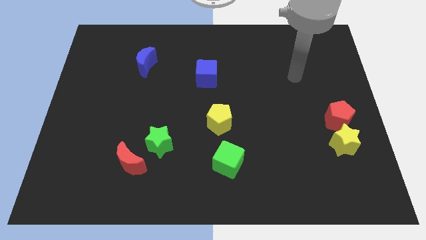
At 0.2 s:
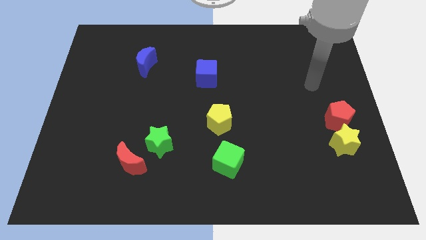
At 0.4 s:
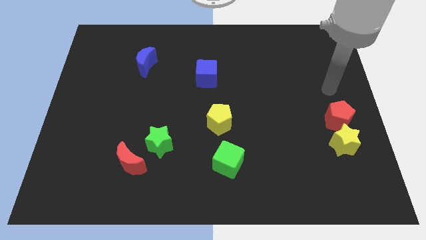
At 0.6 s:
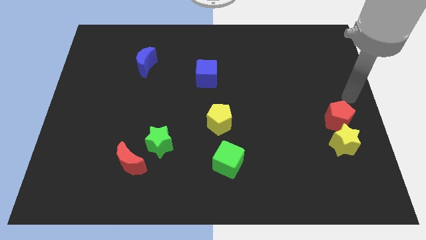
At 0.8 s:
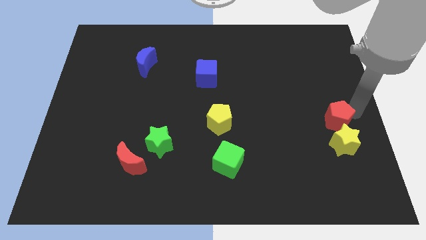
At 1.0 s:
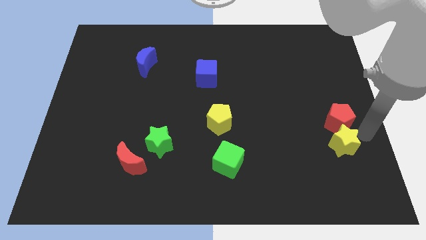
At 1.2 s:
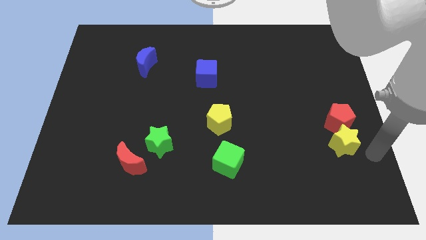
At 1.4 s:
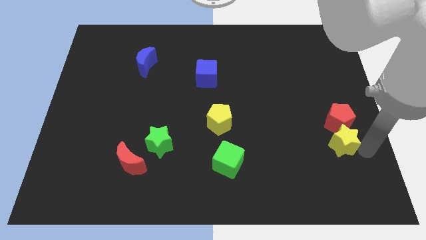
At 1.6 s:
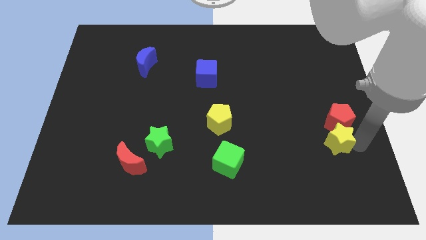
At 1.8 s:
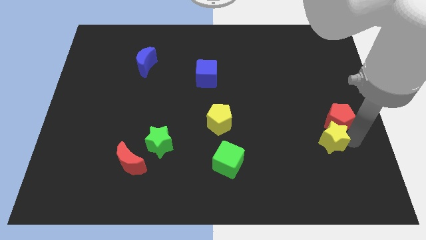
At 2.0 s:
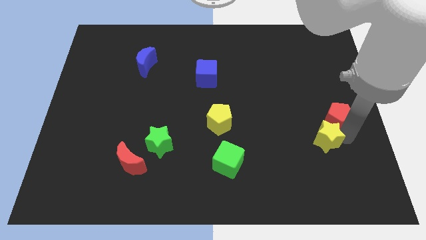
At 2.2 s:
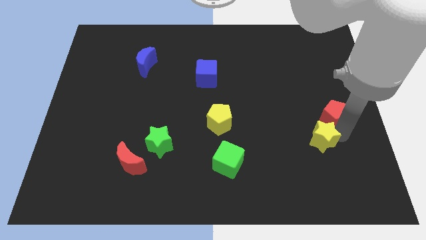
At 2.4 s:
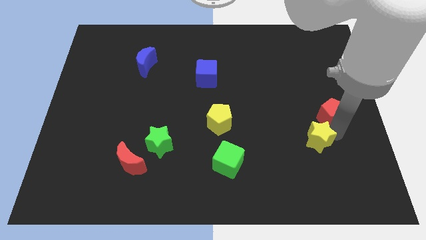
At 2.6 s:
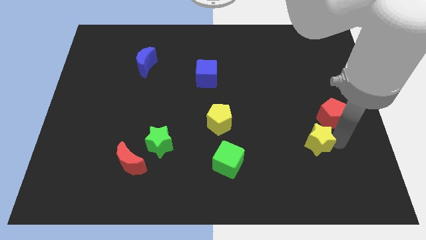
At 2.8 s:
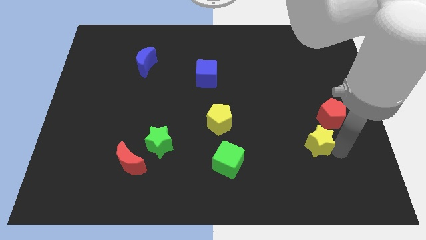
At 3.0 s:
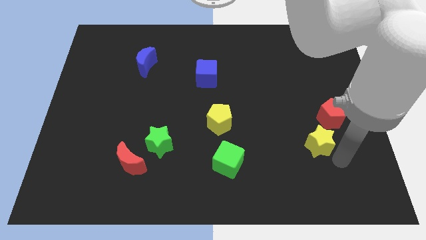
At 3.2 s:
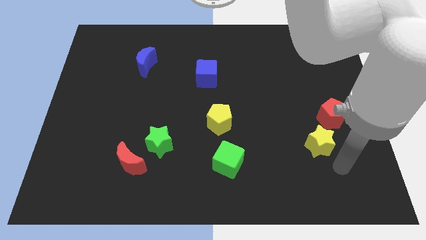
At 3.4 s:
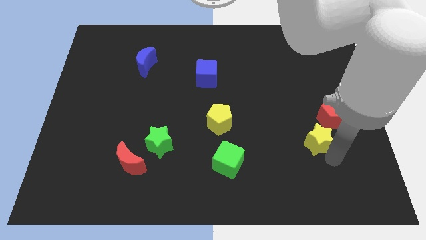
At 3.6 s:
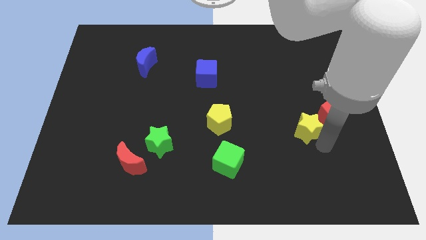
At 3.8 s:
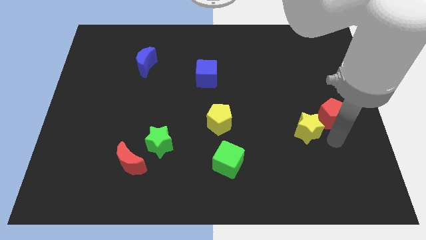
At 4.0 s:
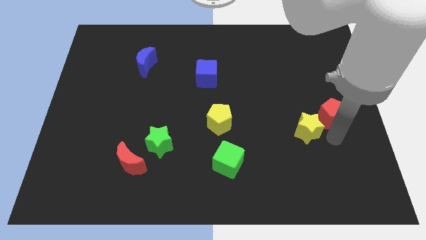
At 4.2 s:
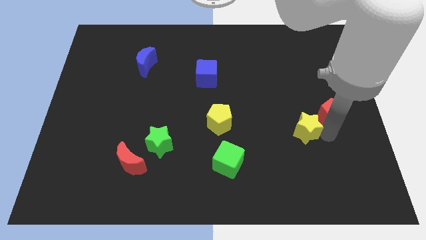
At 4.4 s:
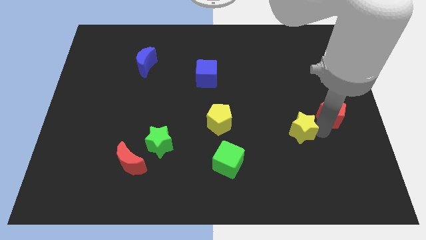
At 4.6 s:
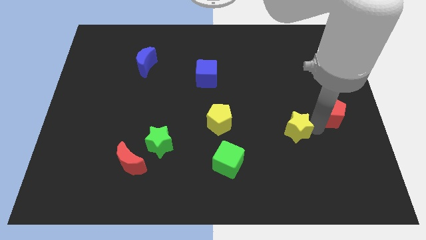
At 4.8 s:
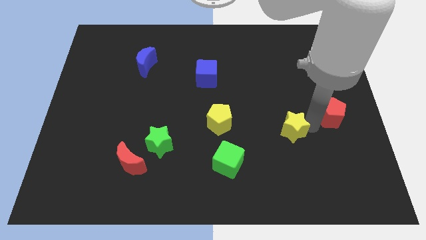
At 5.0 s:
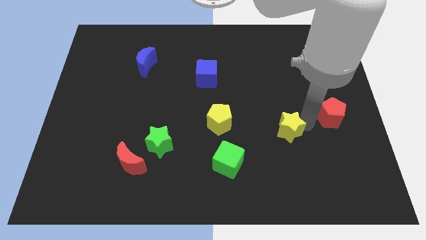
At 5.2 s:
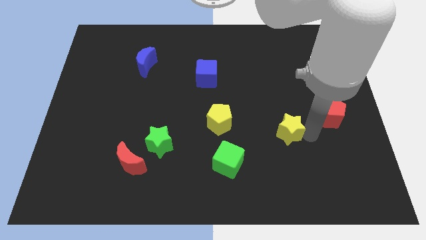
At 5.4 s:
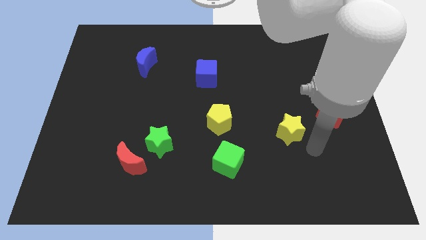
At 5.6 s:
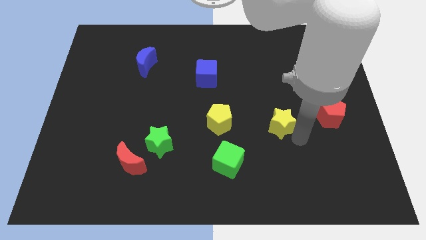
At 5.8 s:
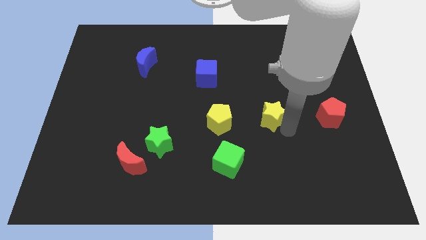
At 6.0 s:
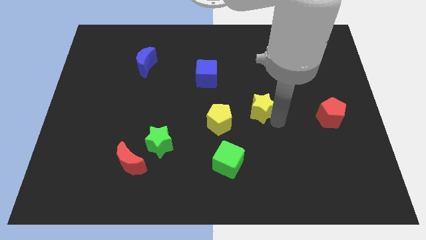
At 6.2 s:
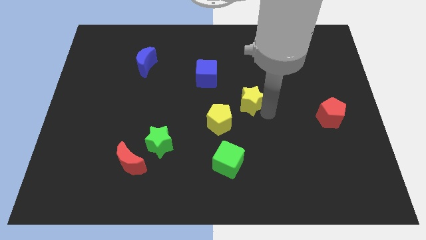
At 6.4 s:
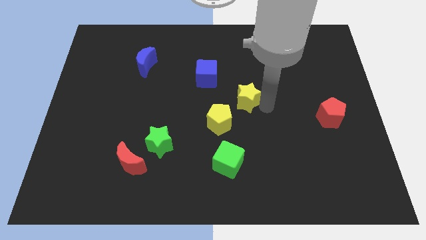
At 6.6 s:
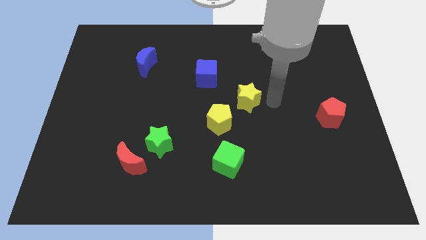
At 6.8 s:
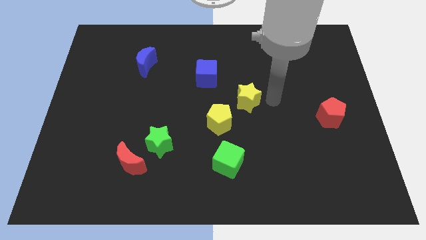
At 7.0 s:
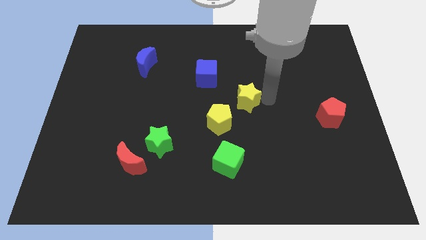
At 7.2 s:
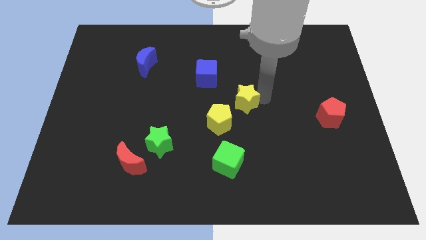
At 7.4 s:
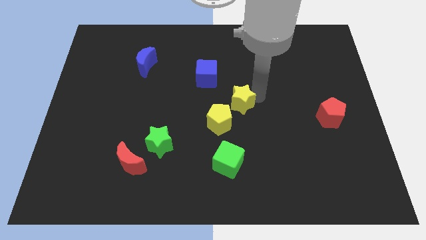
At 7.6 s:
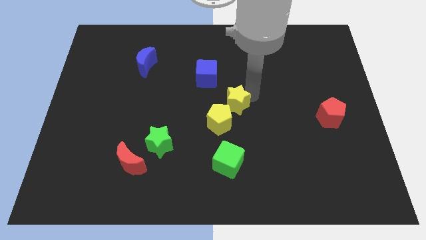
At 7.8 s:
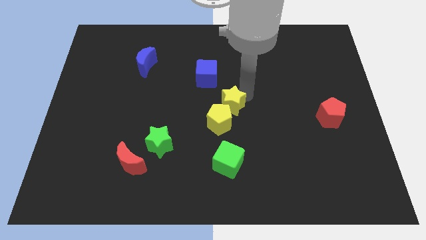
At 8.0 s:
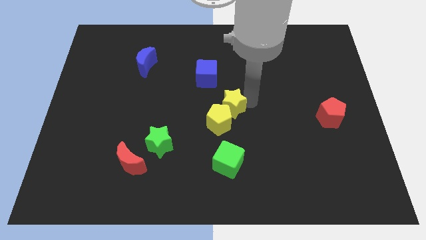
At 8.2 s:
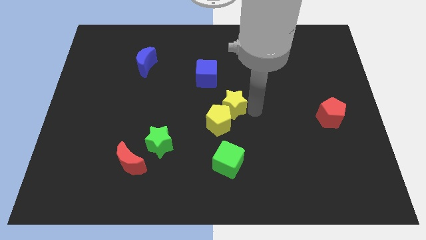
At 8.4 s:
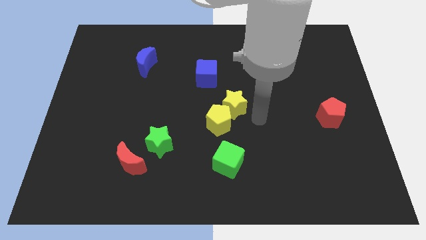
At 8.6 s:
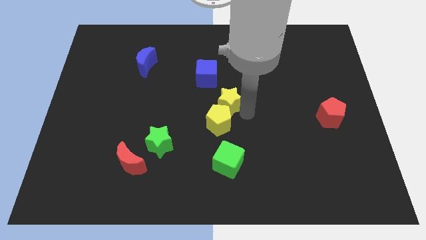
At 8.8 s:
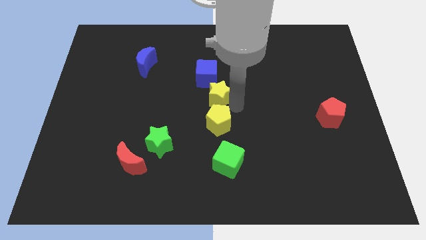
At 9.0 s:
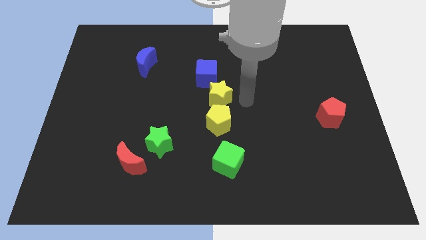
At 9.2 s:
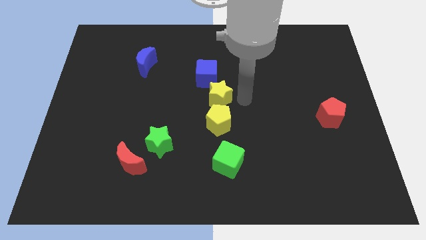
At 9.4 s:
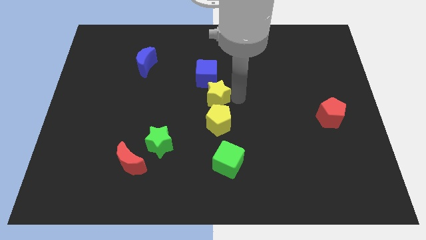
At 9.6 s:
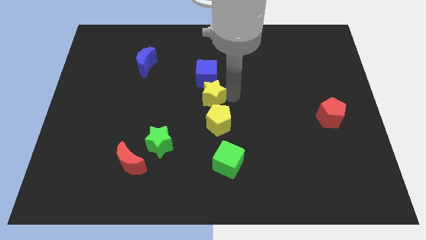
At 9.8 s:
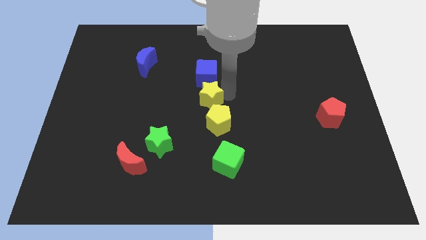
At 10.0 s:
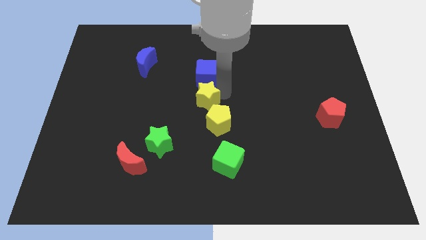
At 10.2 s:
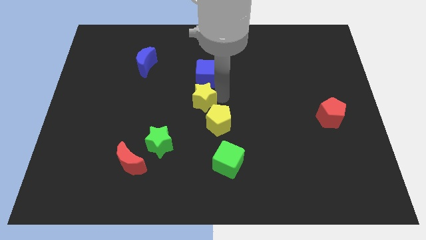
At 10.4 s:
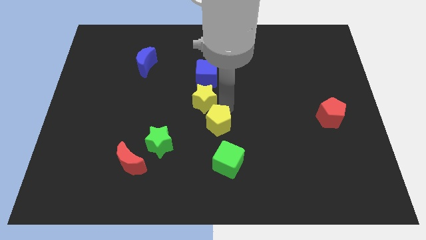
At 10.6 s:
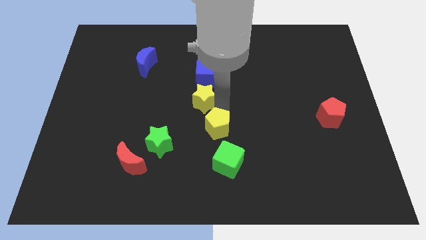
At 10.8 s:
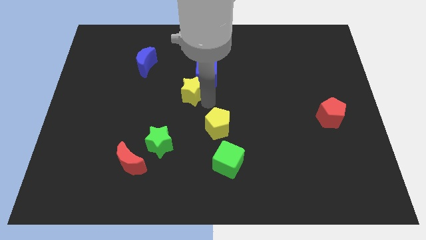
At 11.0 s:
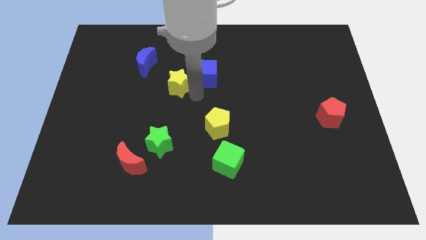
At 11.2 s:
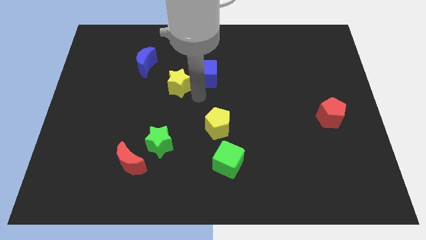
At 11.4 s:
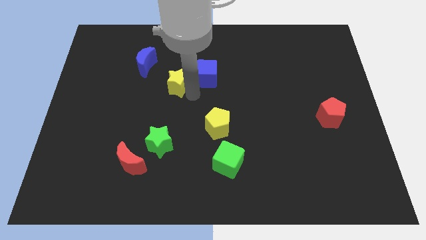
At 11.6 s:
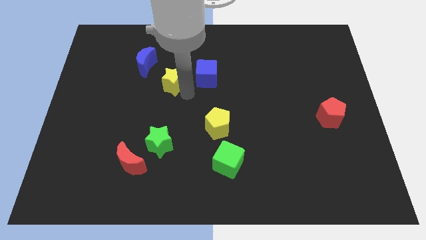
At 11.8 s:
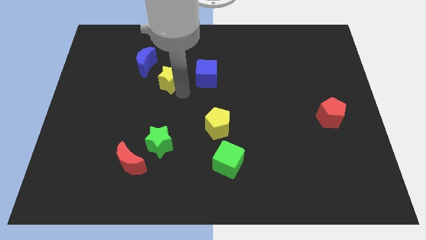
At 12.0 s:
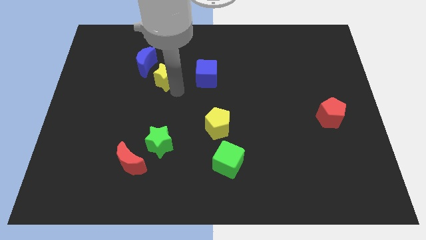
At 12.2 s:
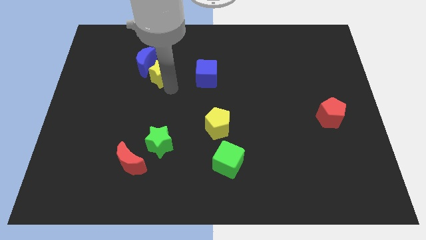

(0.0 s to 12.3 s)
slide the yellow star close to the blue moon

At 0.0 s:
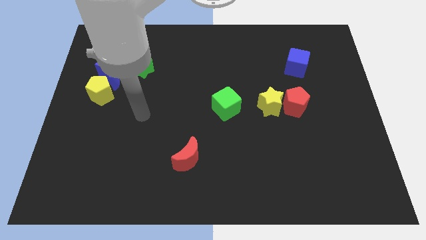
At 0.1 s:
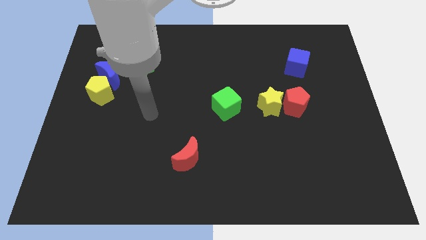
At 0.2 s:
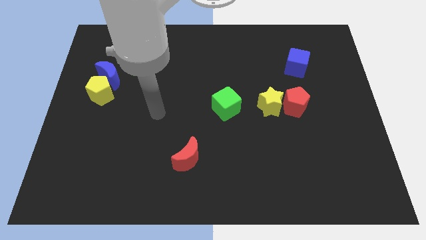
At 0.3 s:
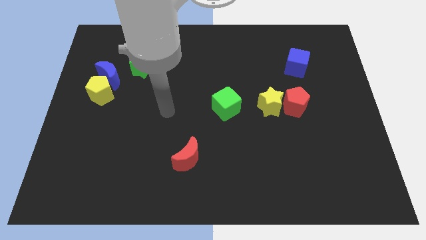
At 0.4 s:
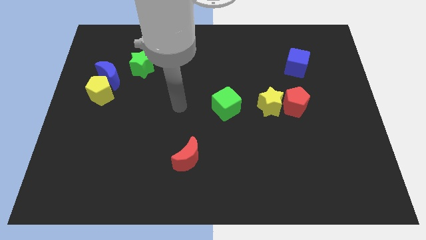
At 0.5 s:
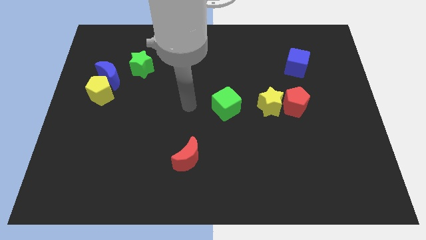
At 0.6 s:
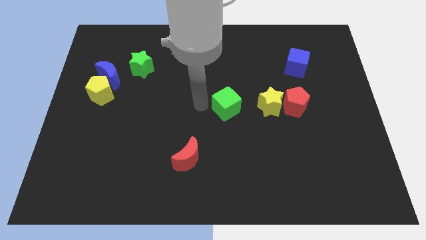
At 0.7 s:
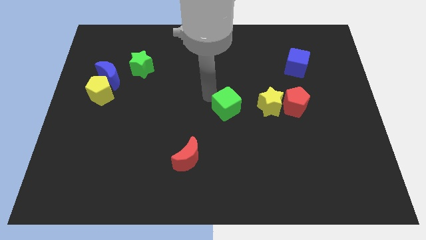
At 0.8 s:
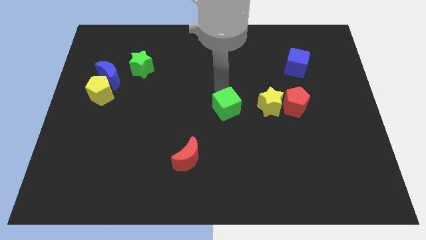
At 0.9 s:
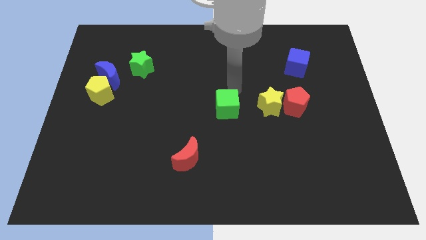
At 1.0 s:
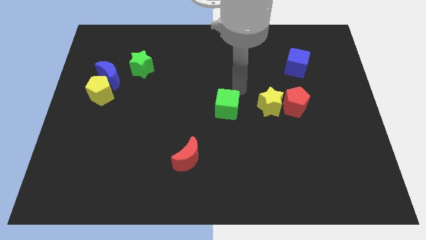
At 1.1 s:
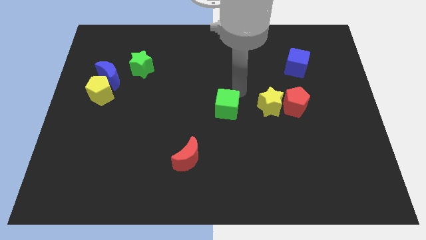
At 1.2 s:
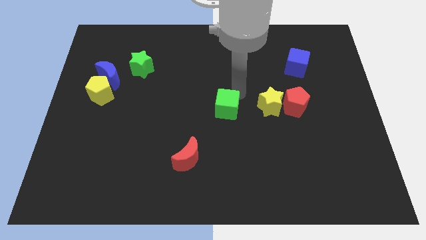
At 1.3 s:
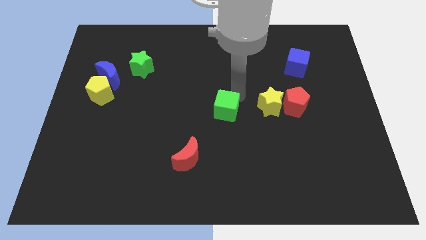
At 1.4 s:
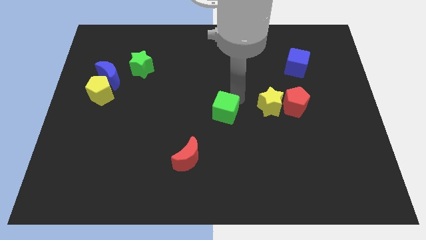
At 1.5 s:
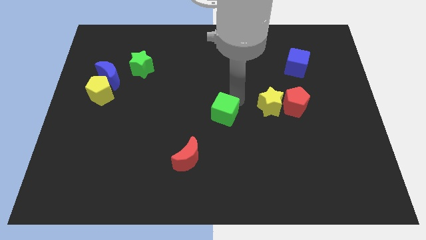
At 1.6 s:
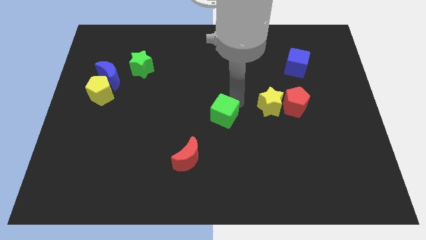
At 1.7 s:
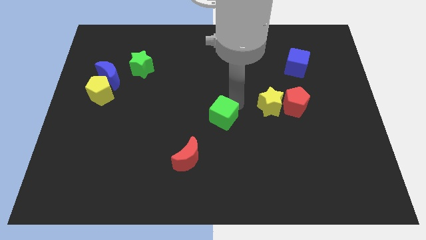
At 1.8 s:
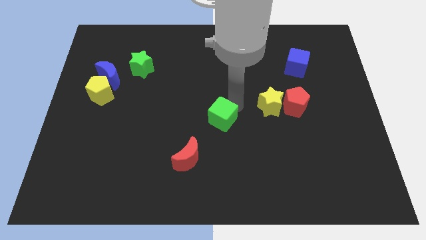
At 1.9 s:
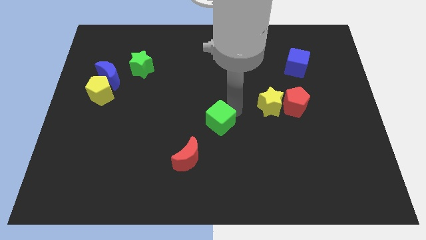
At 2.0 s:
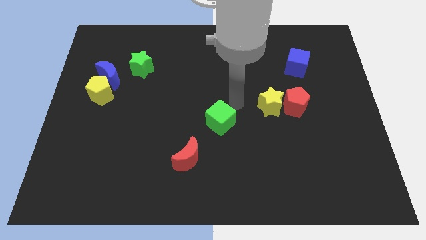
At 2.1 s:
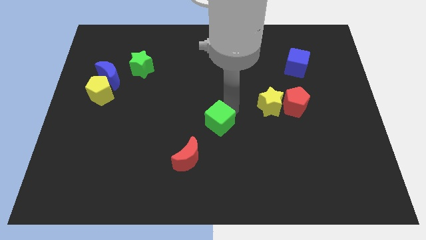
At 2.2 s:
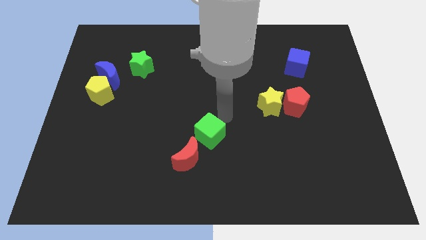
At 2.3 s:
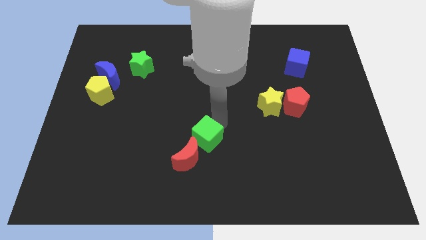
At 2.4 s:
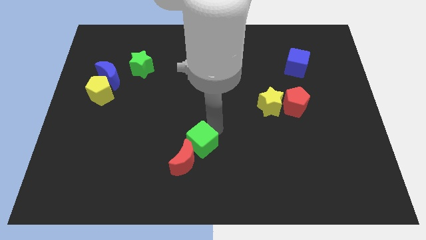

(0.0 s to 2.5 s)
move the green cube towards the red moon
